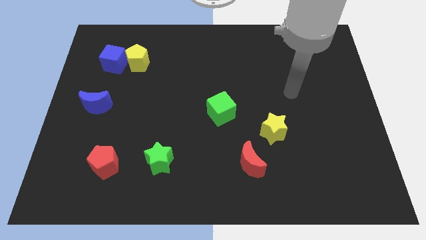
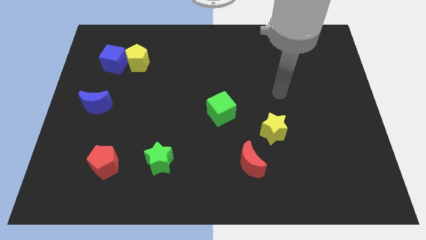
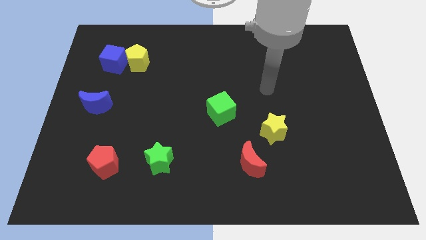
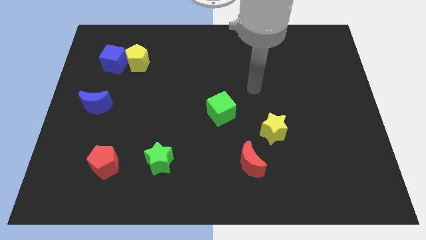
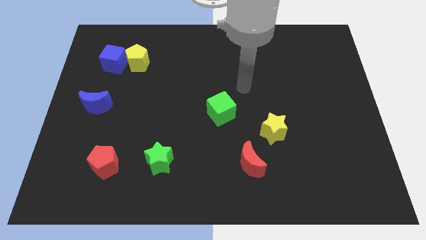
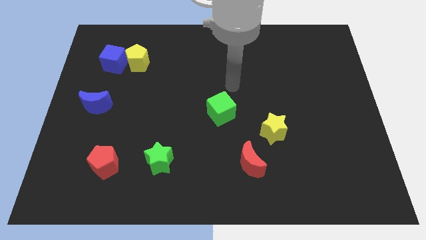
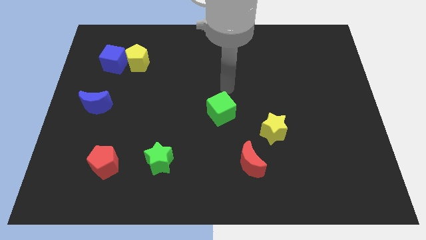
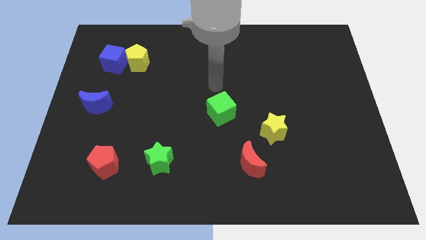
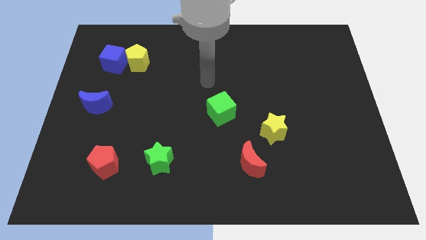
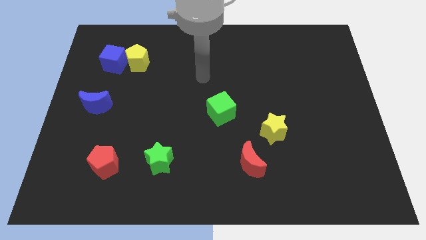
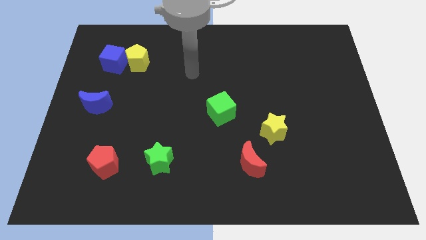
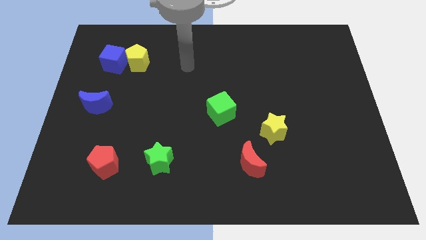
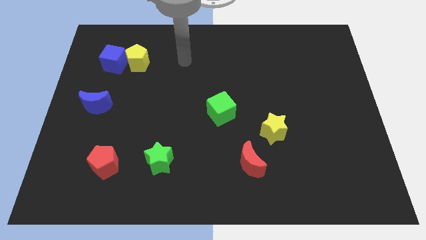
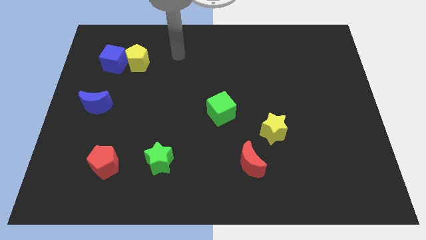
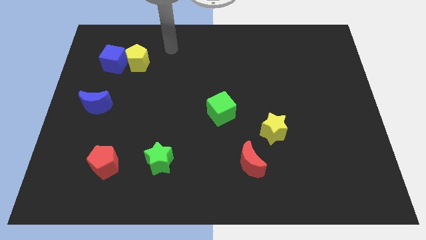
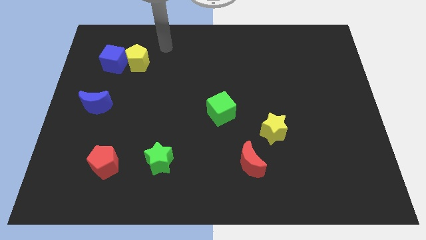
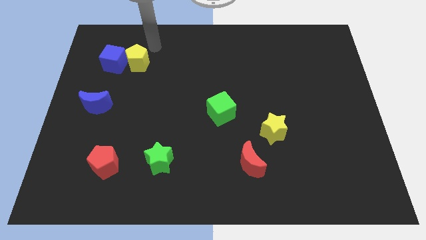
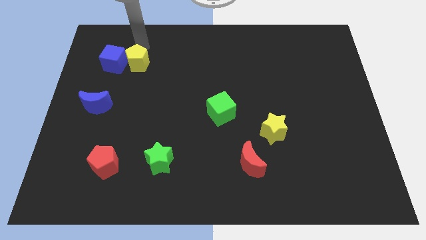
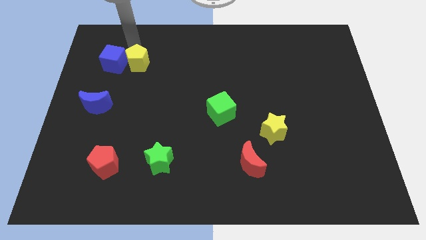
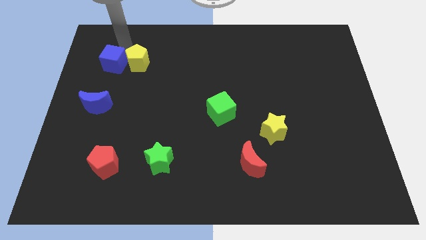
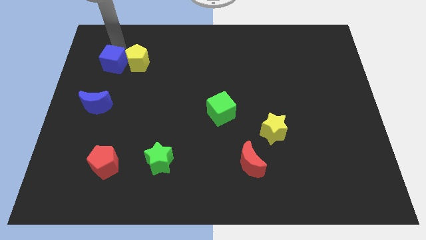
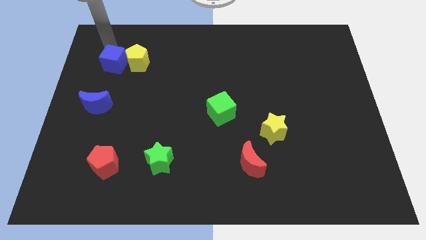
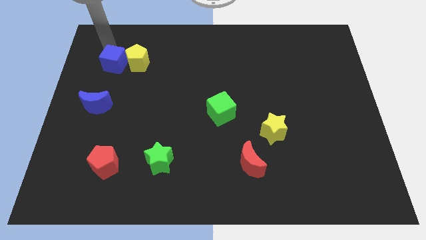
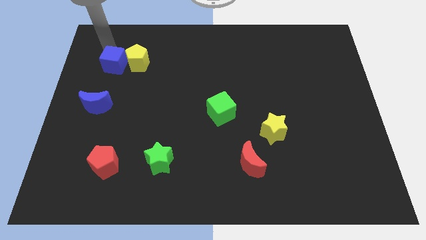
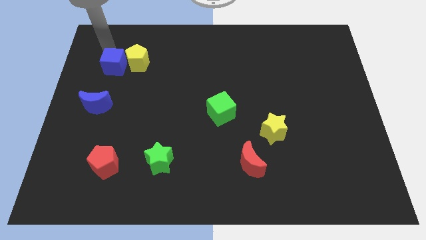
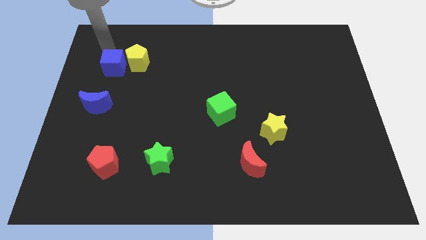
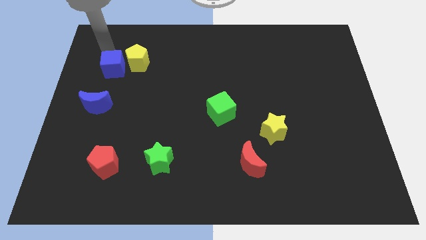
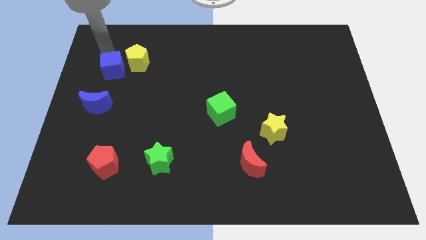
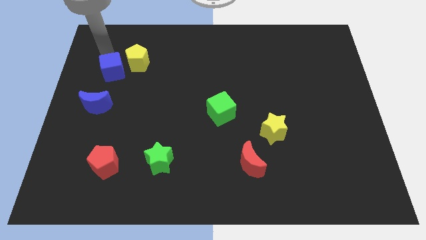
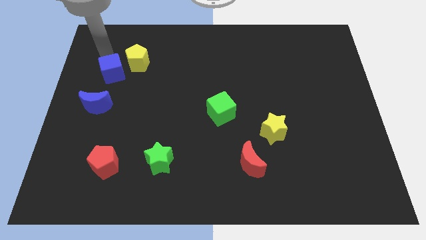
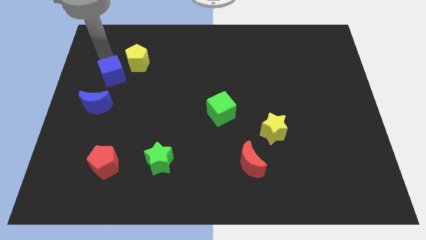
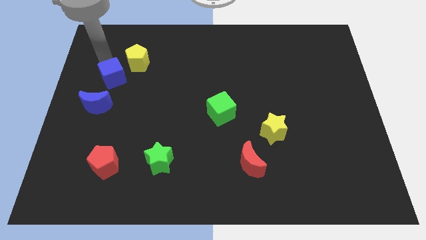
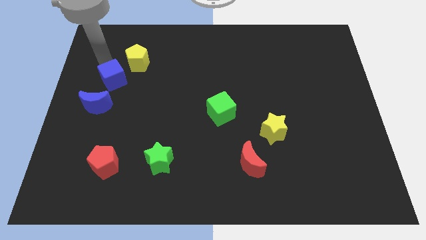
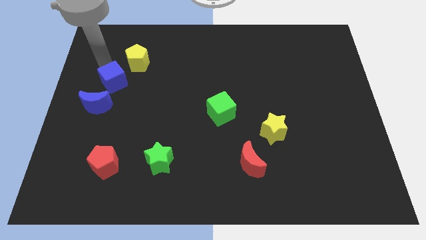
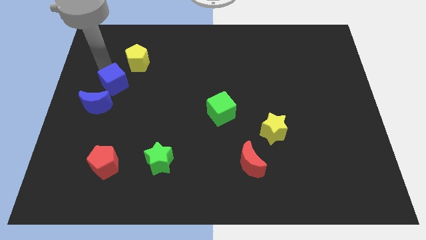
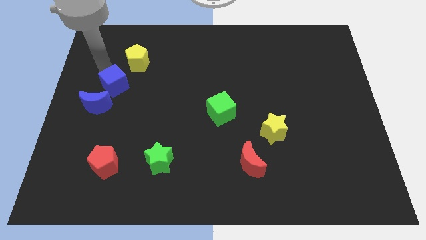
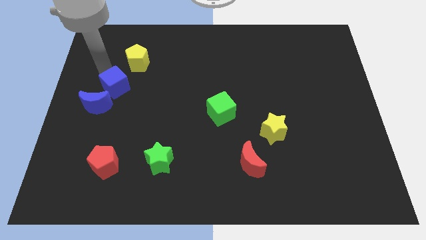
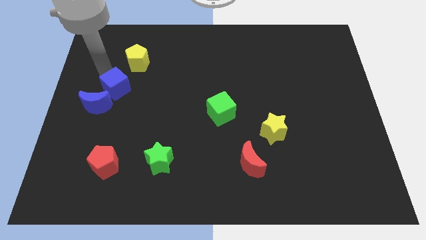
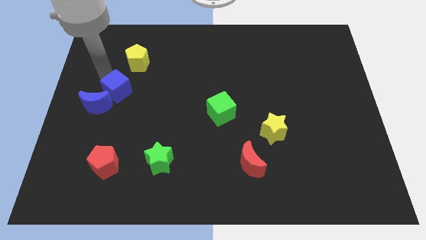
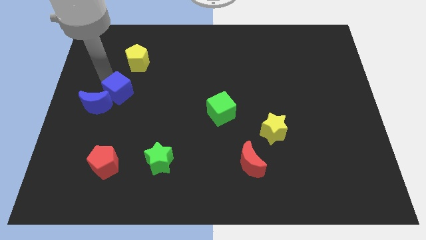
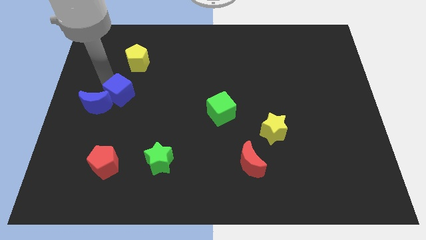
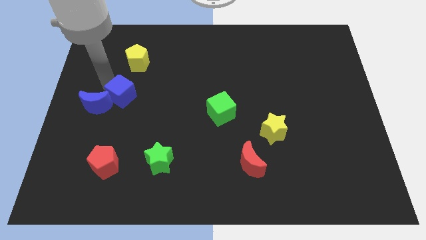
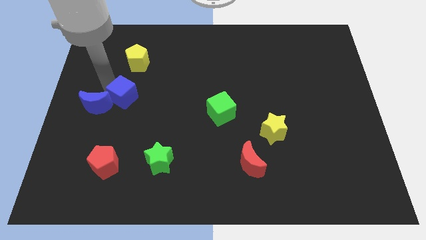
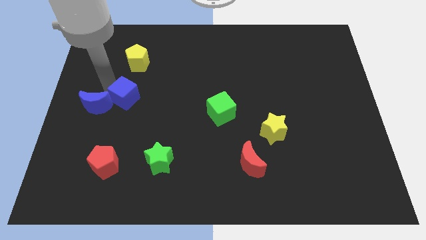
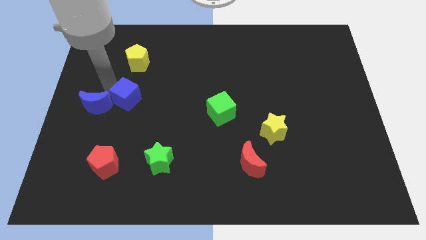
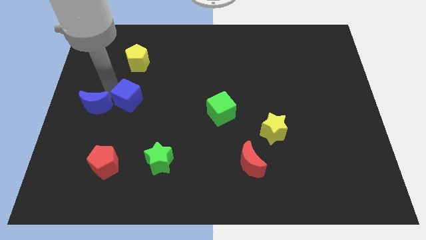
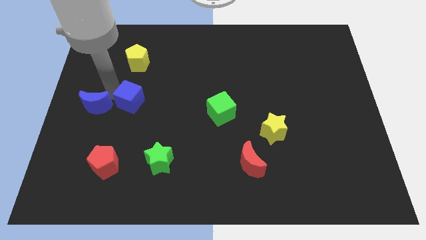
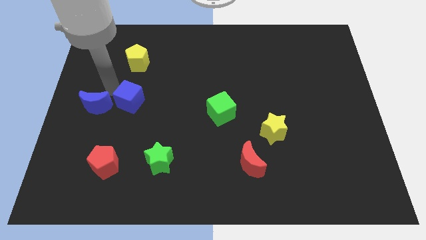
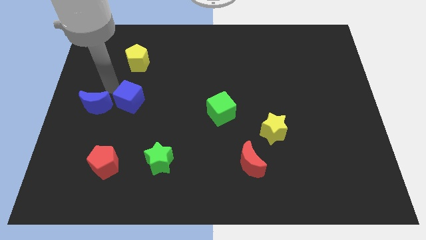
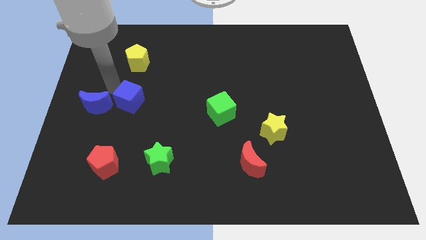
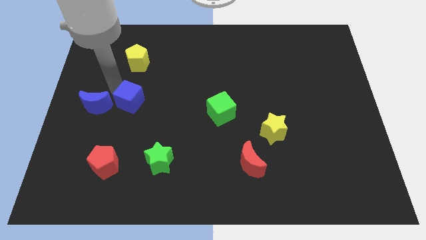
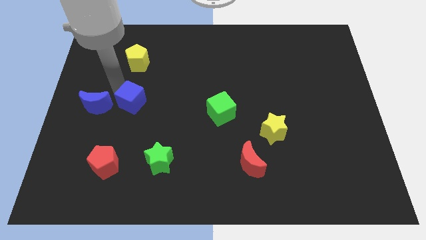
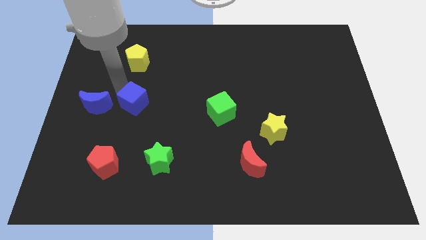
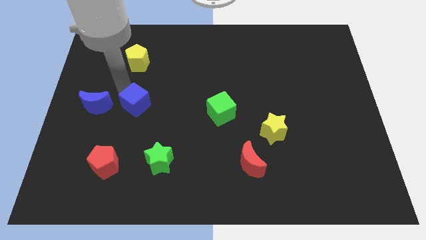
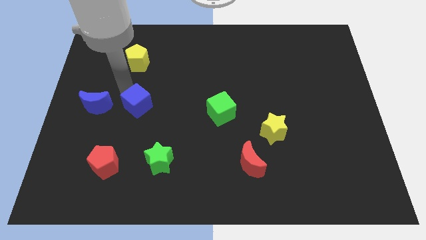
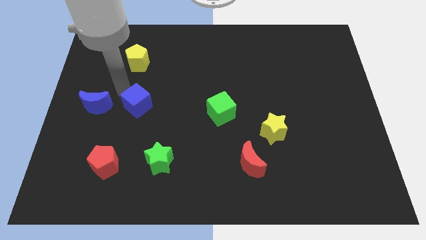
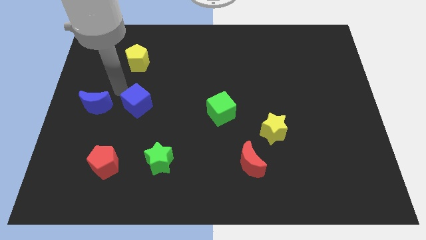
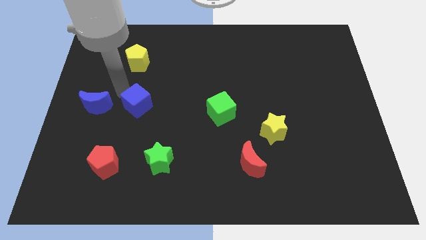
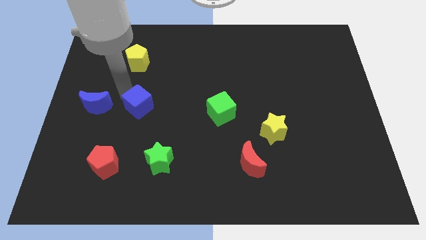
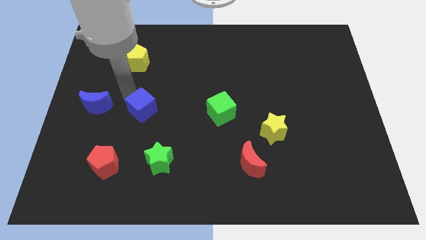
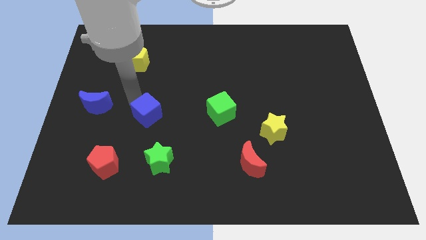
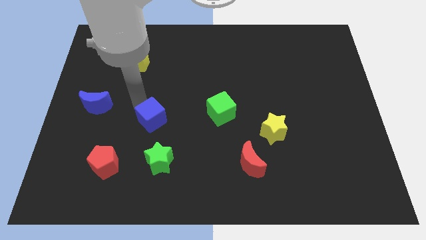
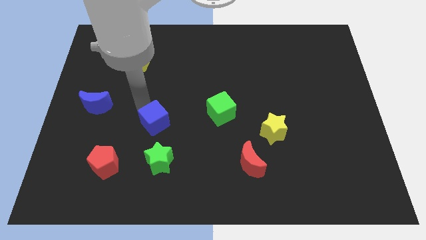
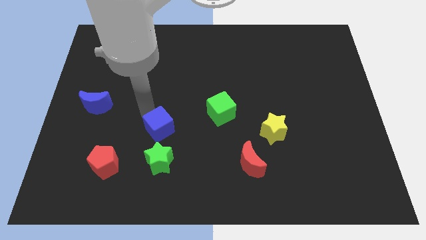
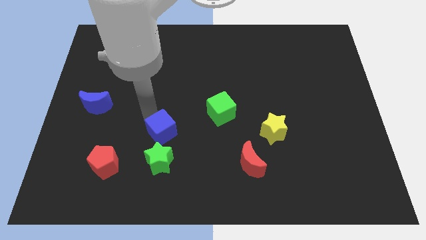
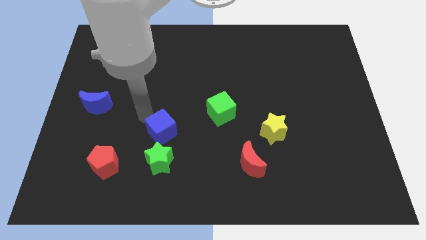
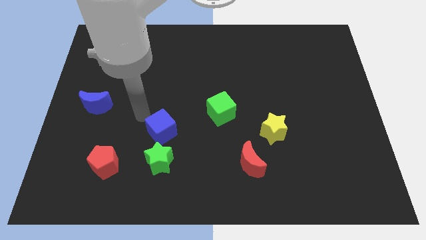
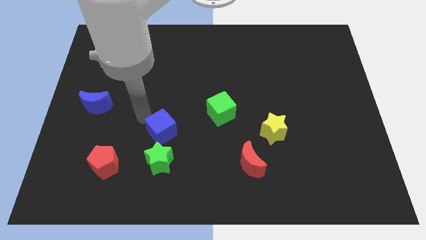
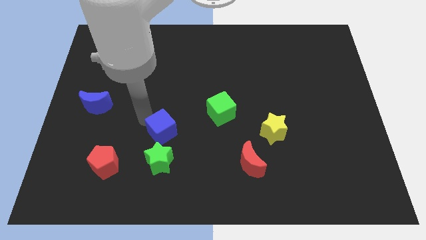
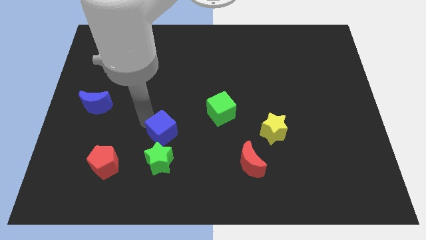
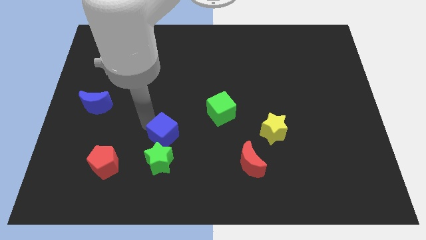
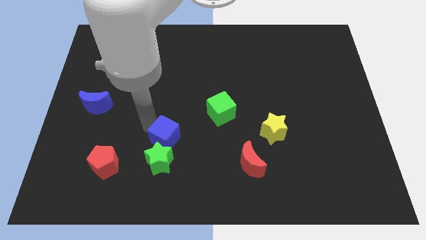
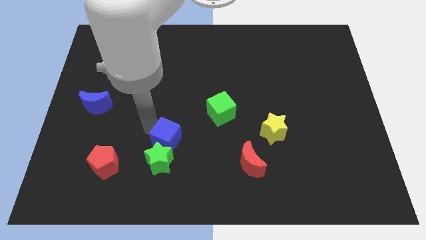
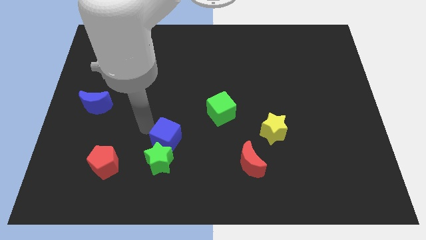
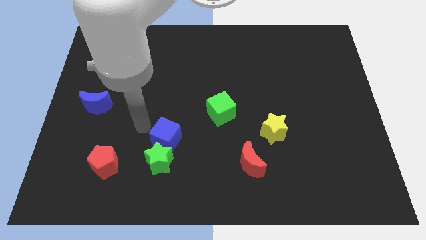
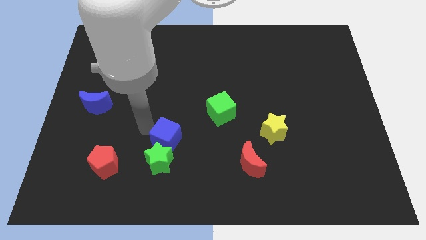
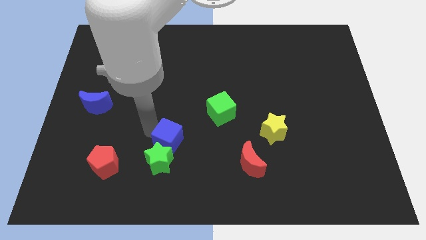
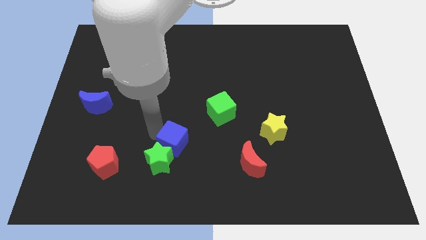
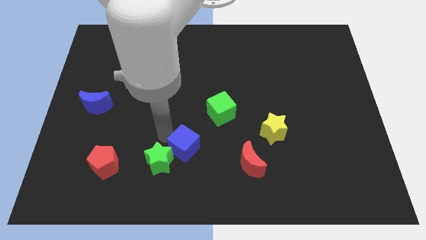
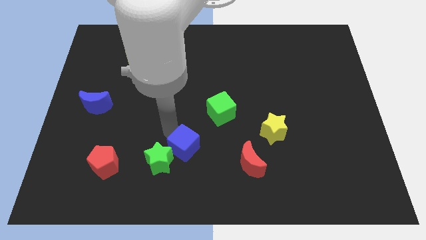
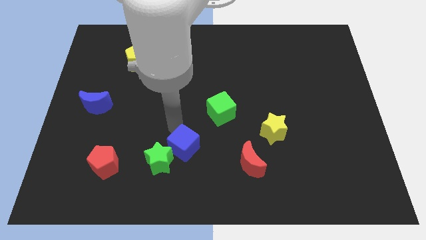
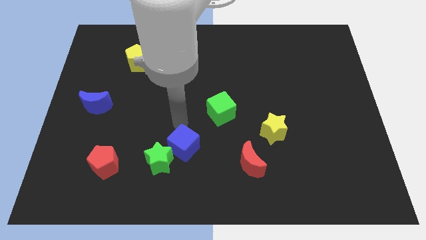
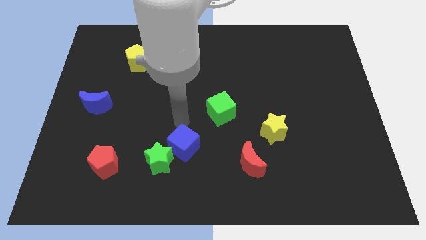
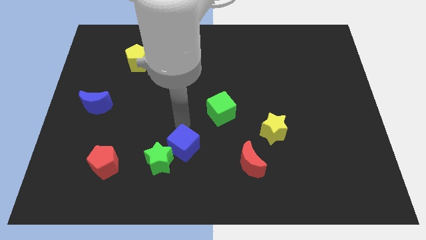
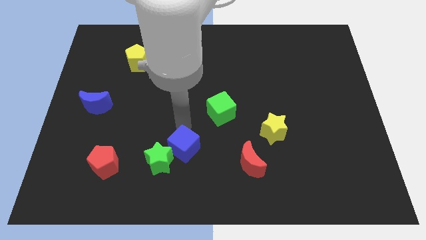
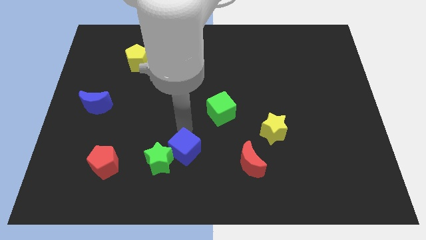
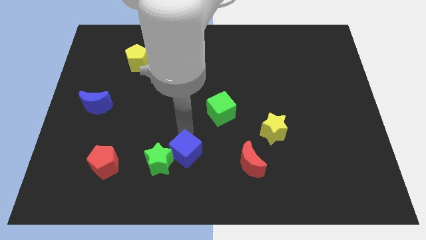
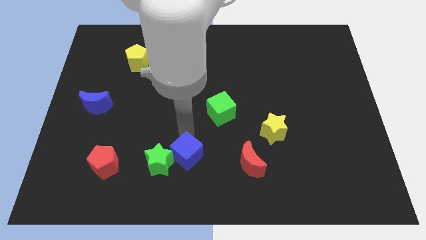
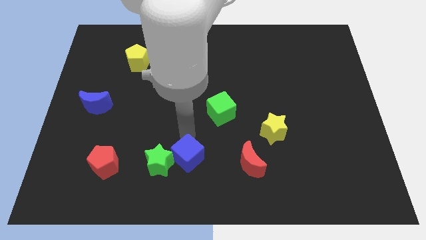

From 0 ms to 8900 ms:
push the blue cube to the bottom side
